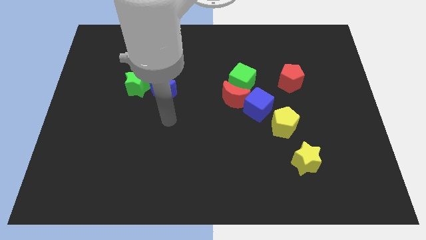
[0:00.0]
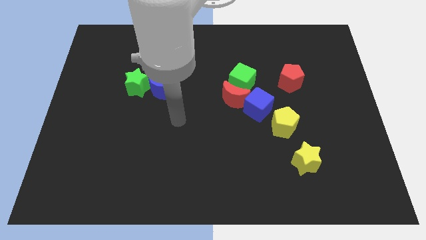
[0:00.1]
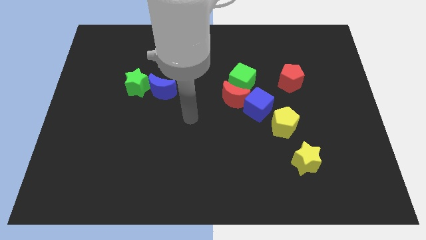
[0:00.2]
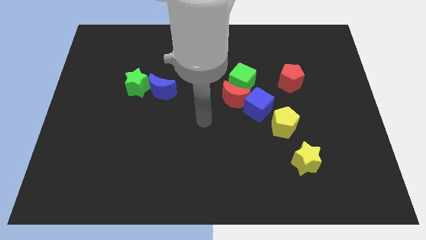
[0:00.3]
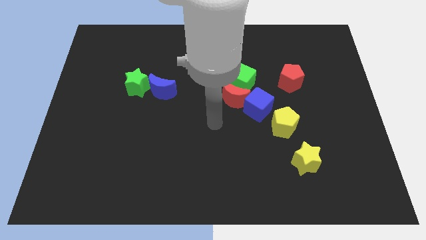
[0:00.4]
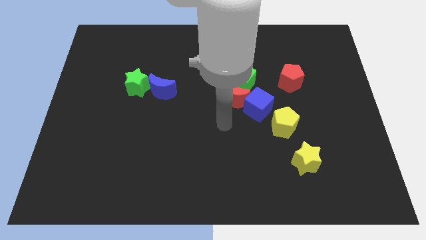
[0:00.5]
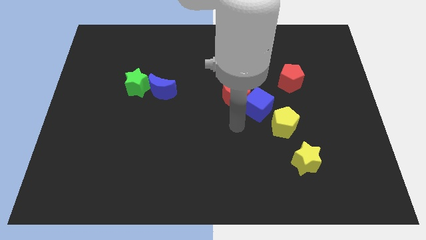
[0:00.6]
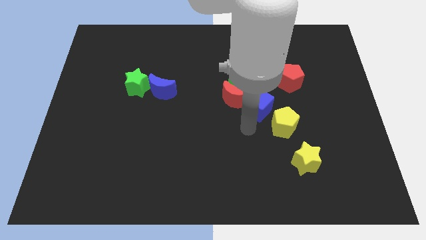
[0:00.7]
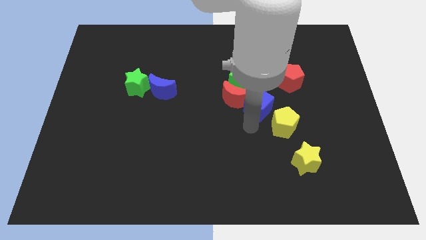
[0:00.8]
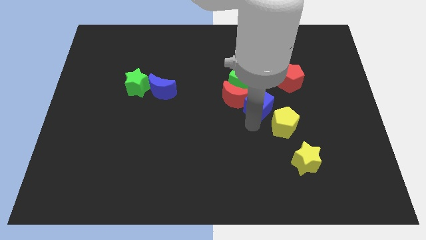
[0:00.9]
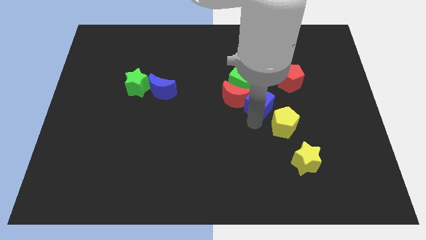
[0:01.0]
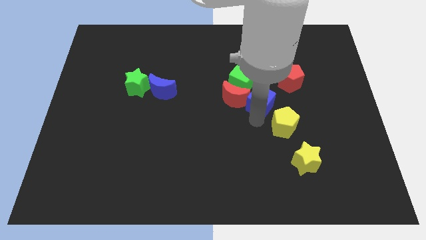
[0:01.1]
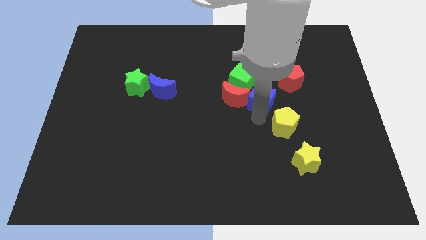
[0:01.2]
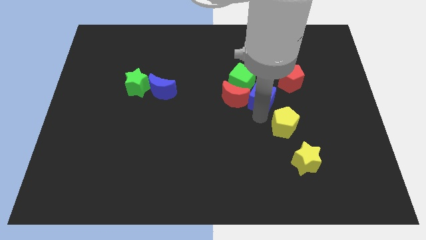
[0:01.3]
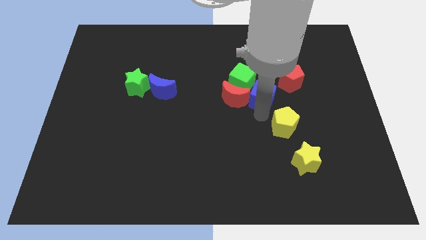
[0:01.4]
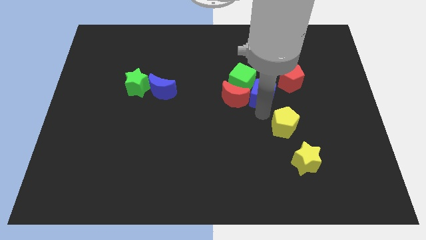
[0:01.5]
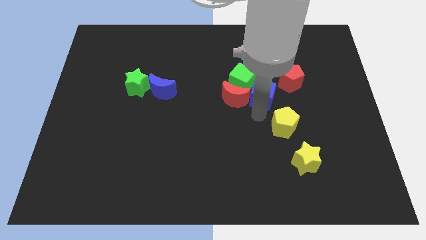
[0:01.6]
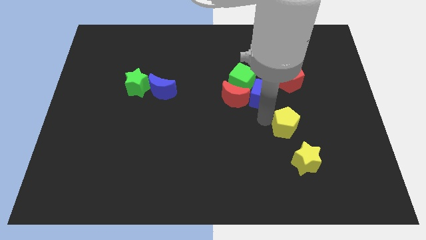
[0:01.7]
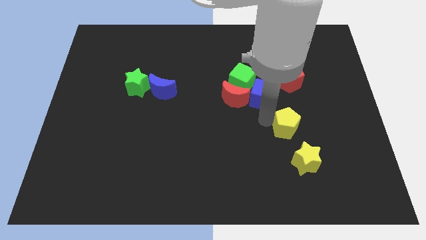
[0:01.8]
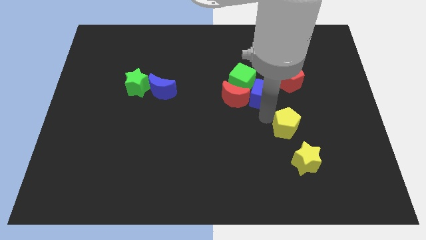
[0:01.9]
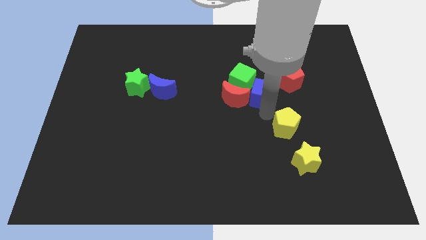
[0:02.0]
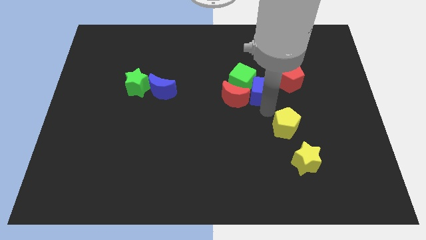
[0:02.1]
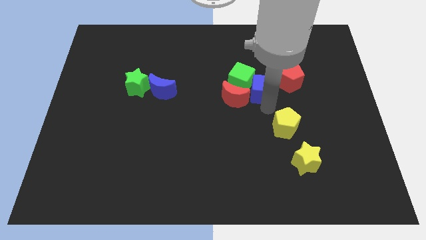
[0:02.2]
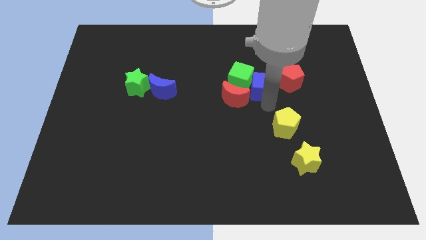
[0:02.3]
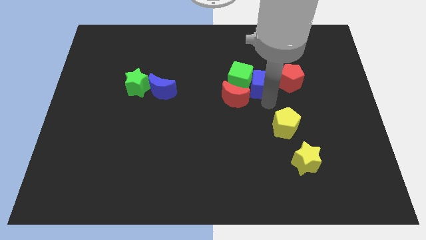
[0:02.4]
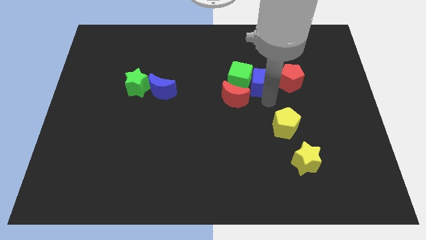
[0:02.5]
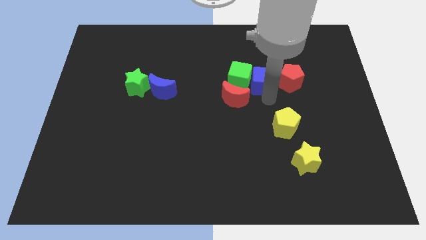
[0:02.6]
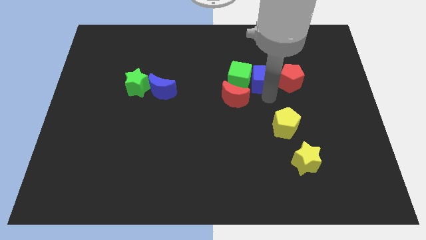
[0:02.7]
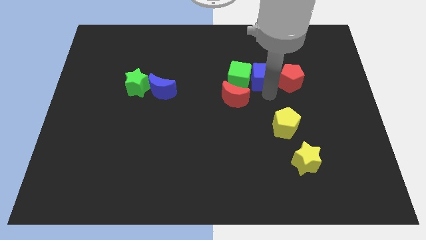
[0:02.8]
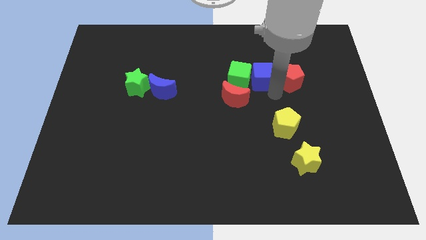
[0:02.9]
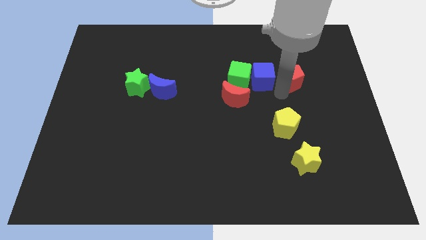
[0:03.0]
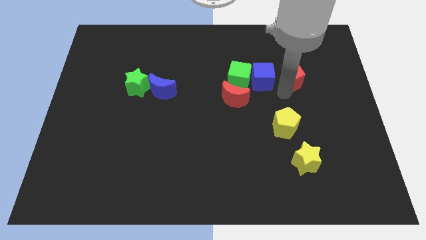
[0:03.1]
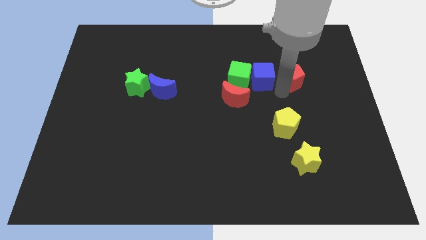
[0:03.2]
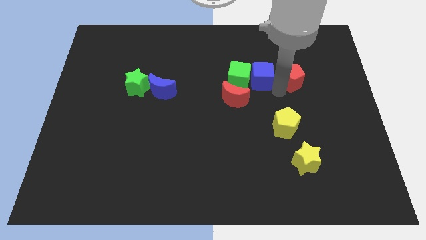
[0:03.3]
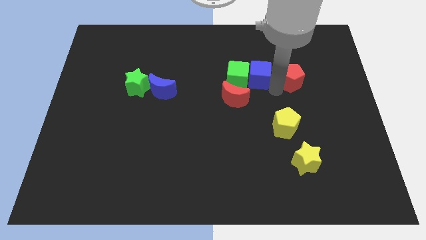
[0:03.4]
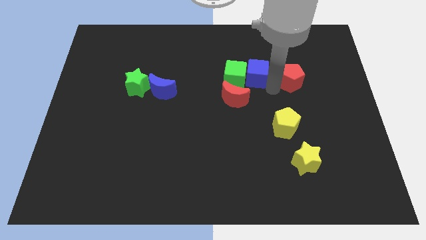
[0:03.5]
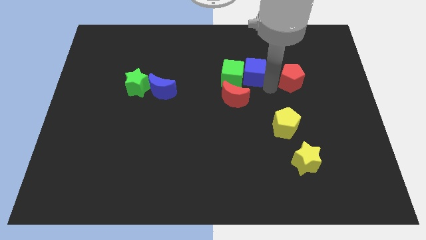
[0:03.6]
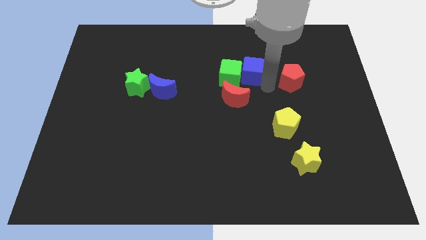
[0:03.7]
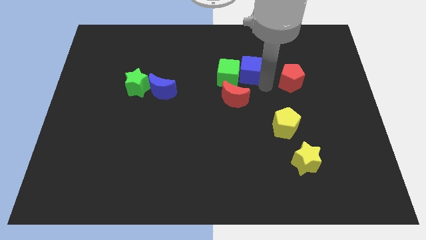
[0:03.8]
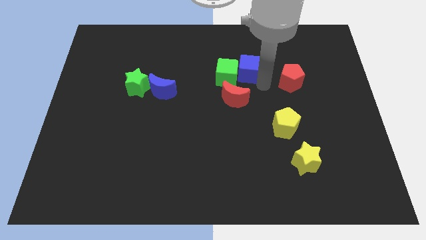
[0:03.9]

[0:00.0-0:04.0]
push the blue cube up and then to the left somewhat

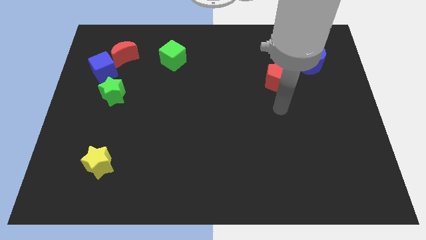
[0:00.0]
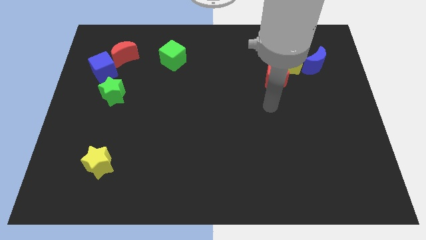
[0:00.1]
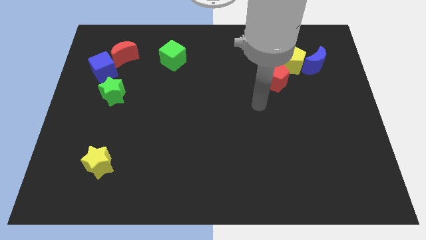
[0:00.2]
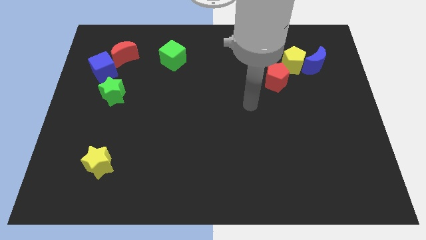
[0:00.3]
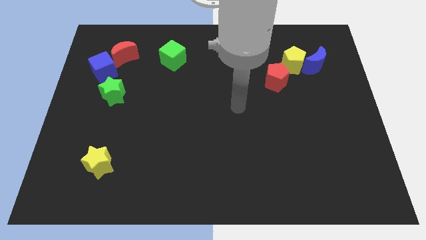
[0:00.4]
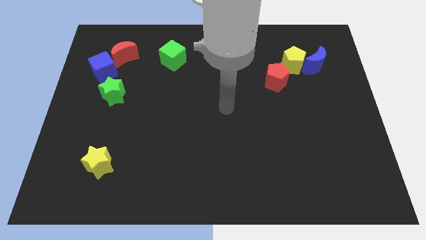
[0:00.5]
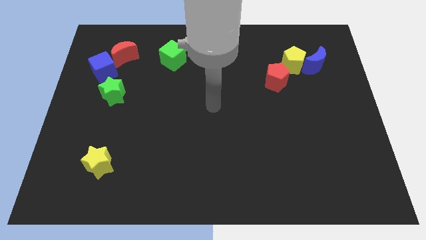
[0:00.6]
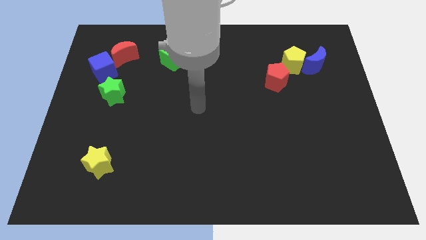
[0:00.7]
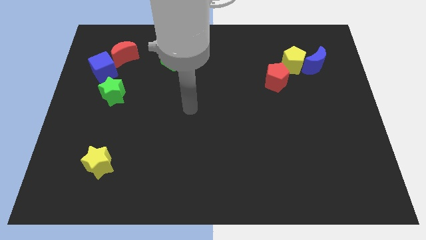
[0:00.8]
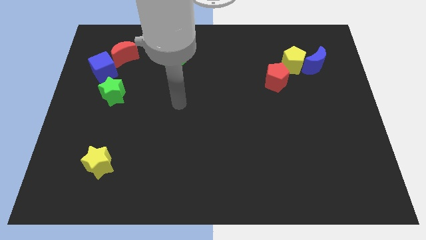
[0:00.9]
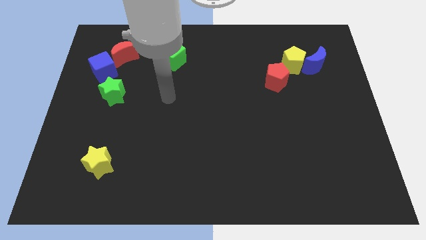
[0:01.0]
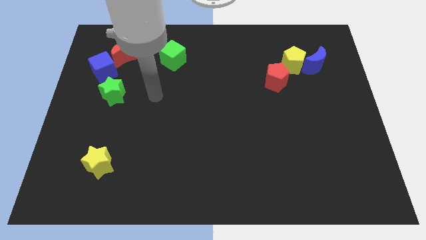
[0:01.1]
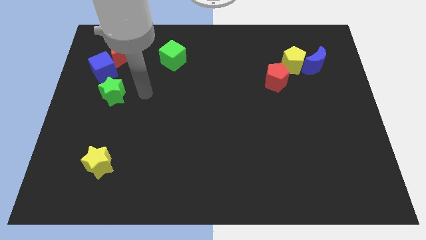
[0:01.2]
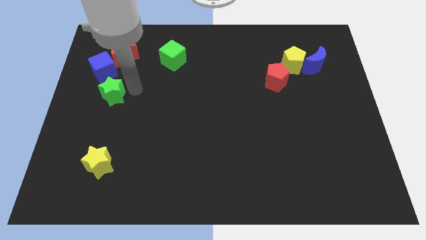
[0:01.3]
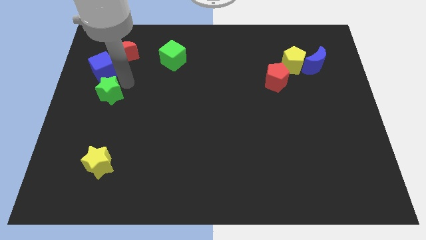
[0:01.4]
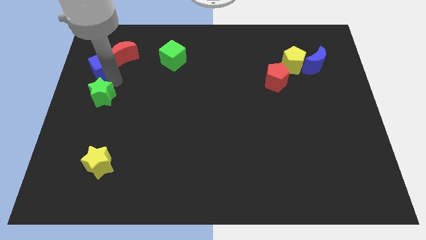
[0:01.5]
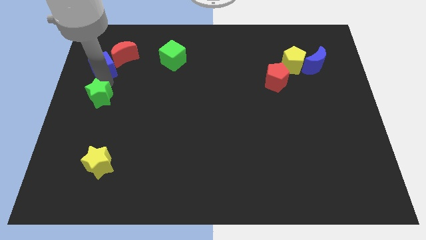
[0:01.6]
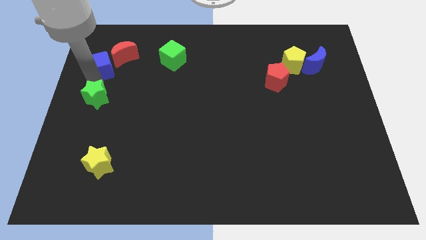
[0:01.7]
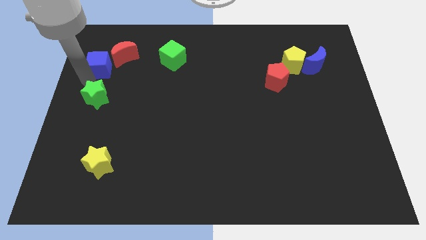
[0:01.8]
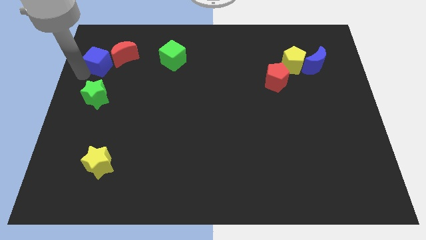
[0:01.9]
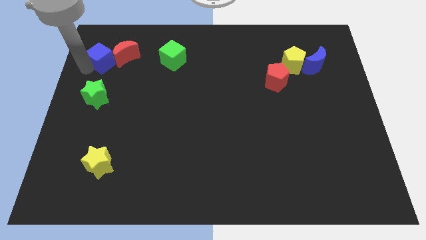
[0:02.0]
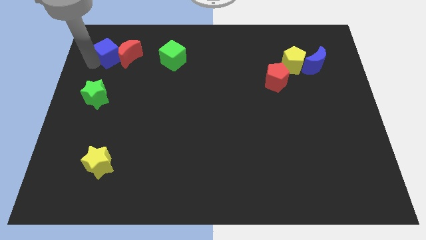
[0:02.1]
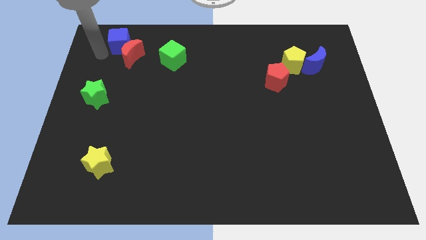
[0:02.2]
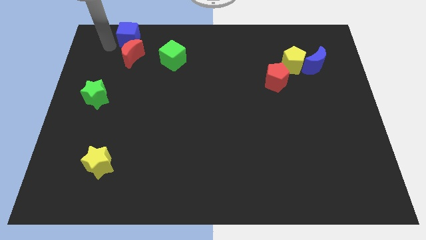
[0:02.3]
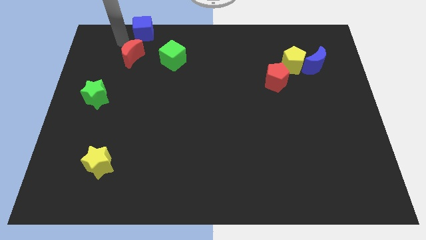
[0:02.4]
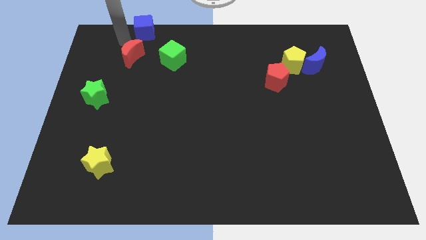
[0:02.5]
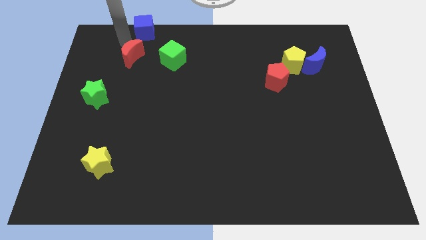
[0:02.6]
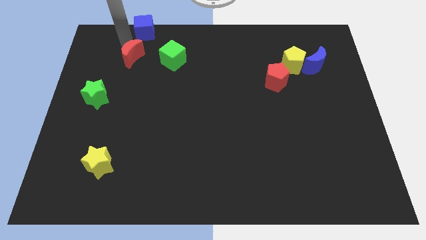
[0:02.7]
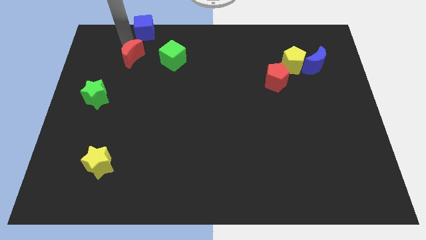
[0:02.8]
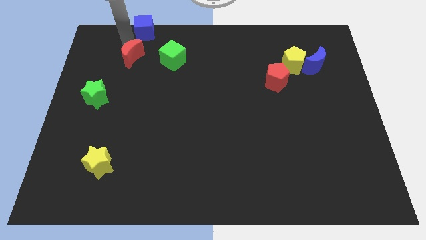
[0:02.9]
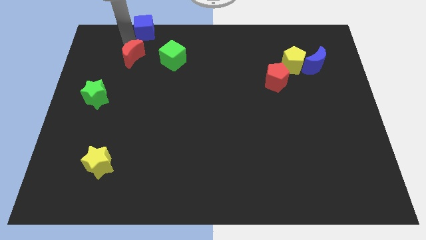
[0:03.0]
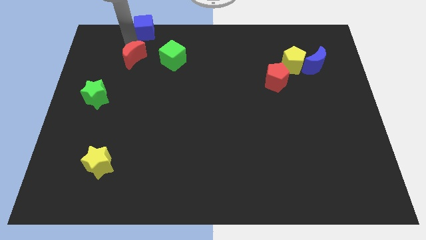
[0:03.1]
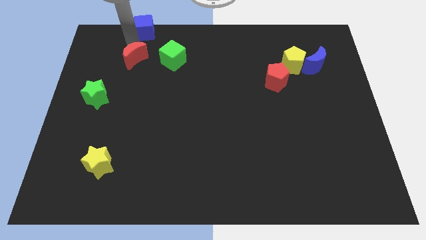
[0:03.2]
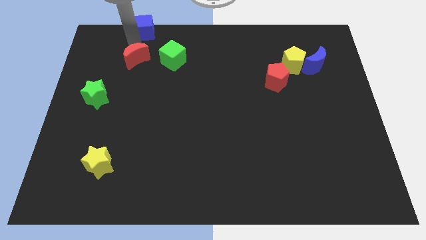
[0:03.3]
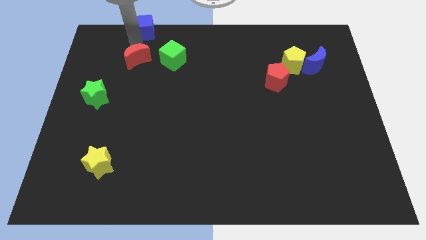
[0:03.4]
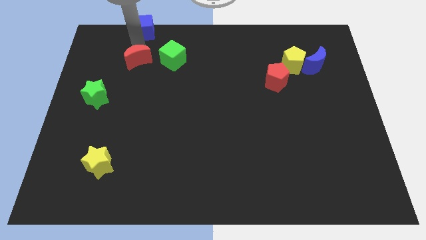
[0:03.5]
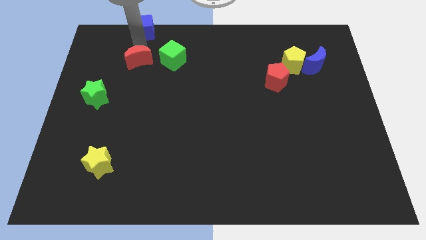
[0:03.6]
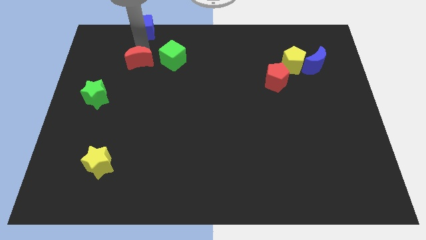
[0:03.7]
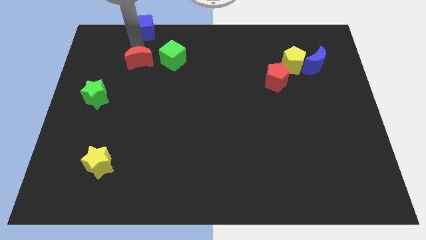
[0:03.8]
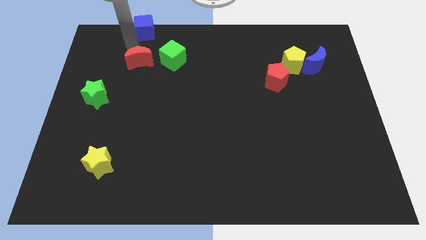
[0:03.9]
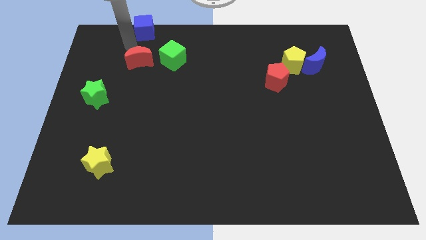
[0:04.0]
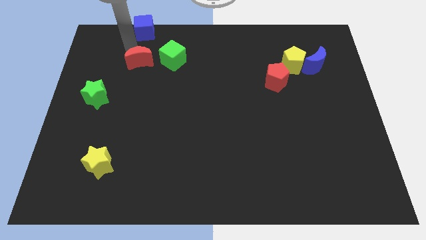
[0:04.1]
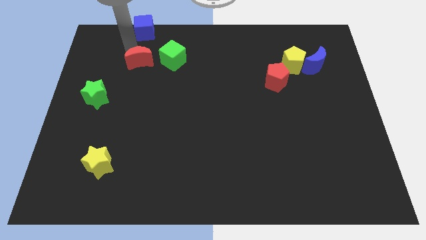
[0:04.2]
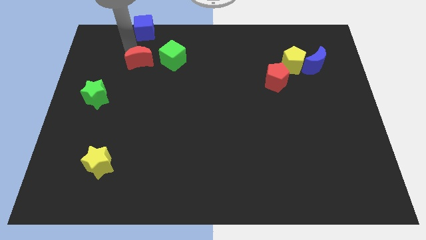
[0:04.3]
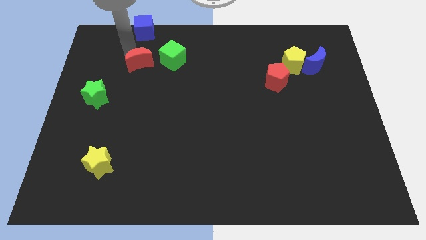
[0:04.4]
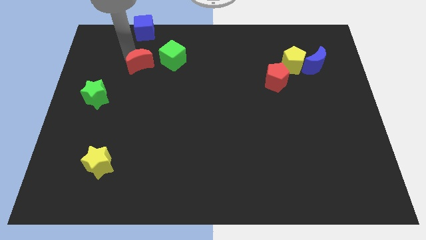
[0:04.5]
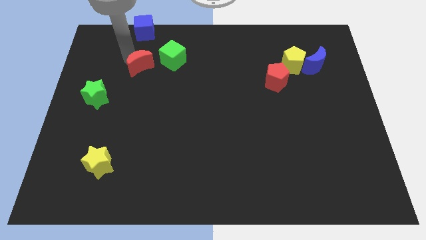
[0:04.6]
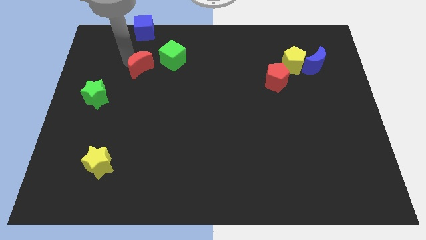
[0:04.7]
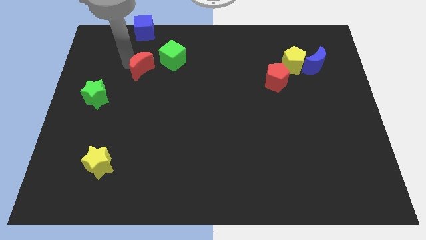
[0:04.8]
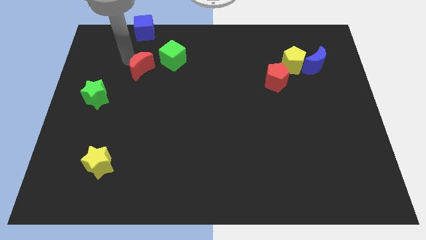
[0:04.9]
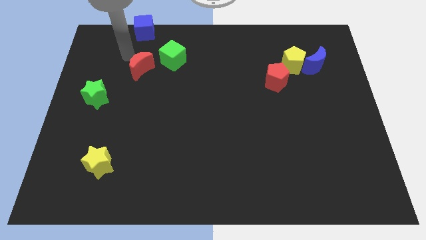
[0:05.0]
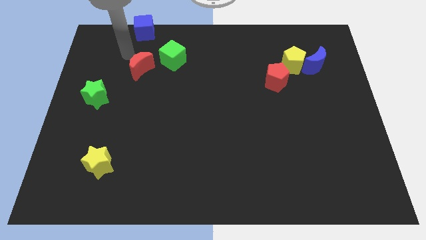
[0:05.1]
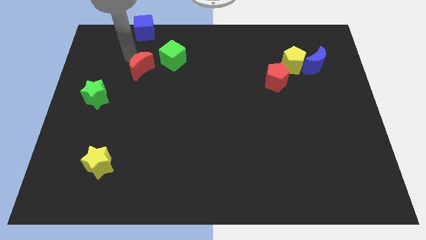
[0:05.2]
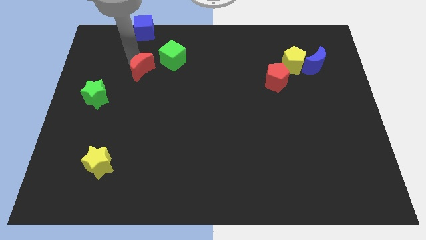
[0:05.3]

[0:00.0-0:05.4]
slightly move the red moon down and right
